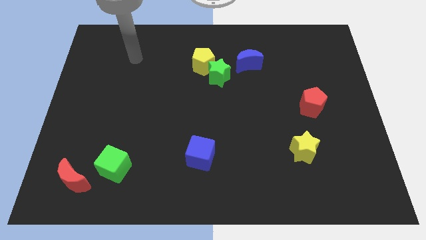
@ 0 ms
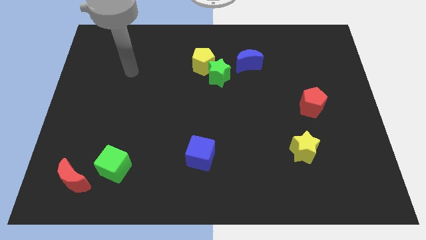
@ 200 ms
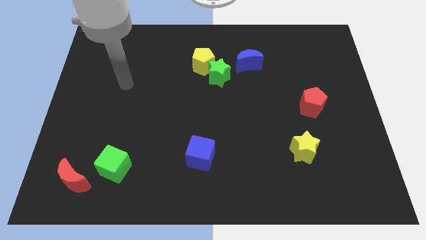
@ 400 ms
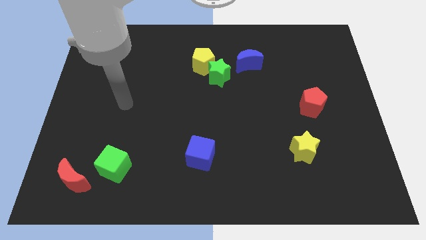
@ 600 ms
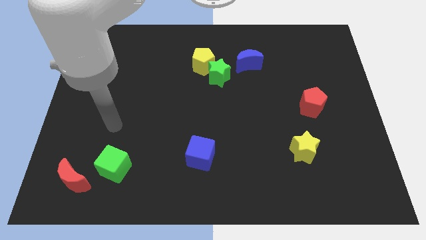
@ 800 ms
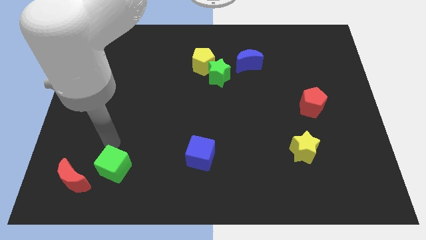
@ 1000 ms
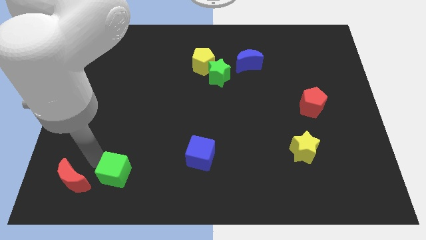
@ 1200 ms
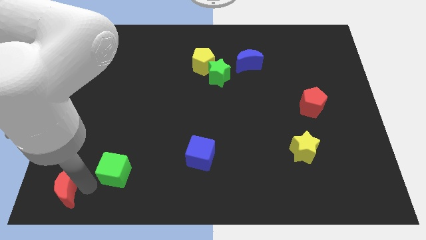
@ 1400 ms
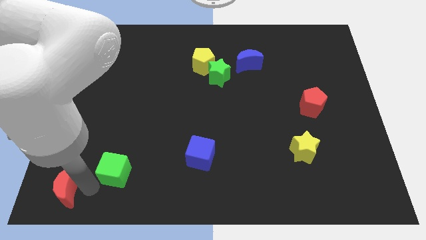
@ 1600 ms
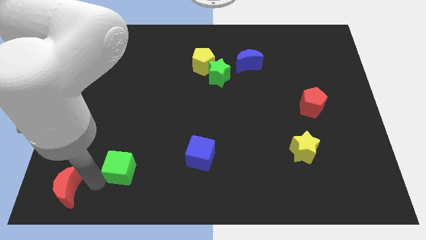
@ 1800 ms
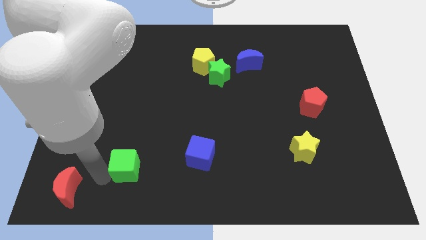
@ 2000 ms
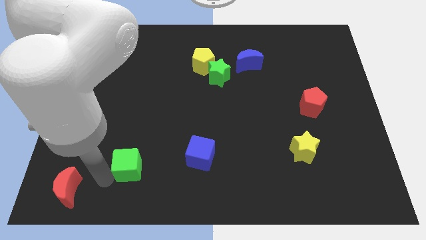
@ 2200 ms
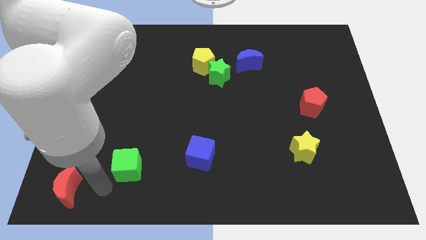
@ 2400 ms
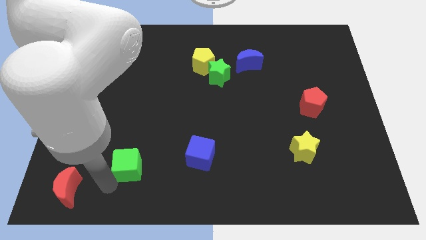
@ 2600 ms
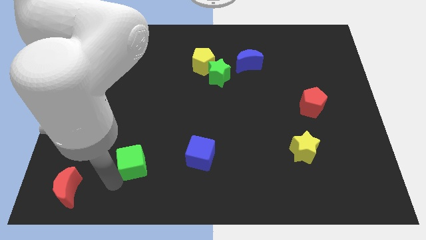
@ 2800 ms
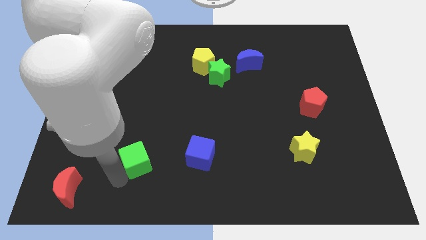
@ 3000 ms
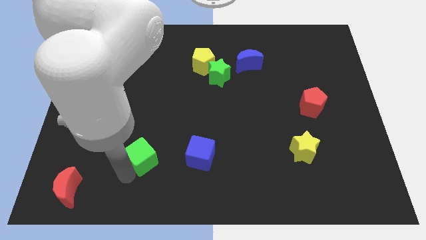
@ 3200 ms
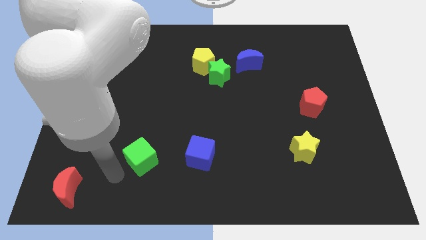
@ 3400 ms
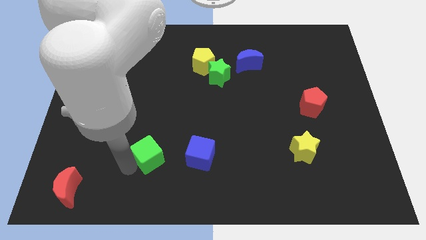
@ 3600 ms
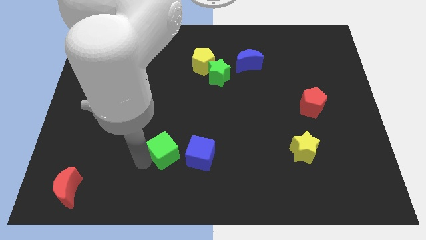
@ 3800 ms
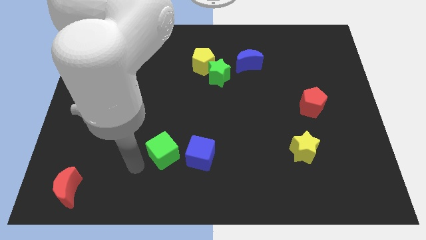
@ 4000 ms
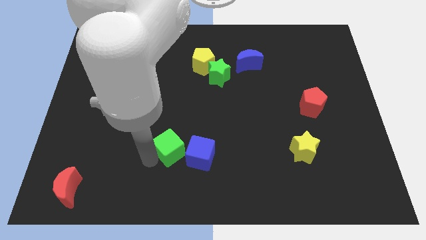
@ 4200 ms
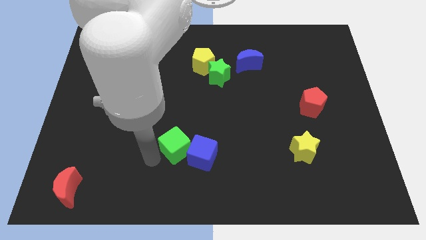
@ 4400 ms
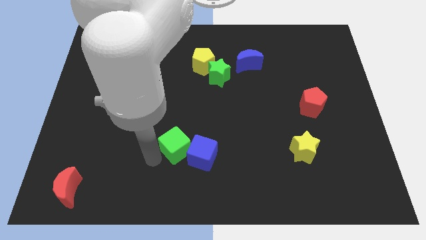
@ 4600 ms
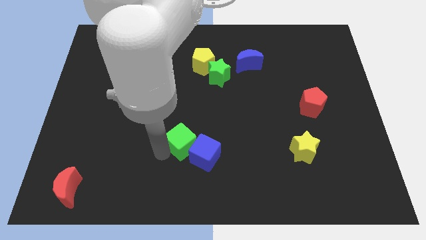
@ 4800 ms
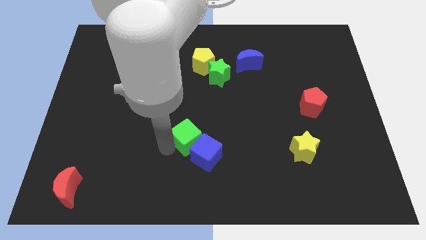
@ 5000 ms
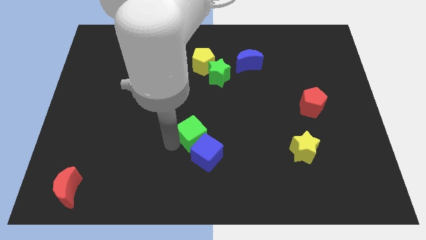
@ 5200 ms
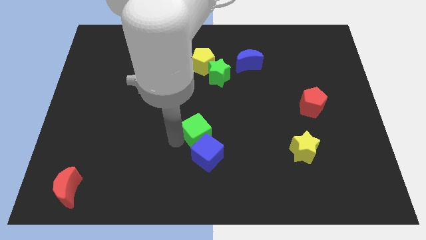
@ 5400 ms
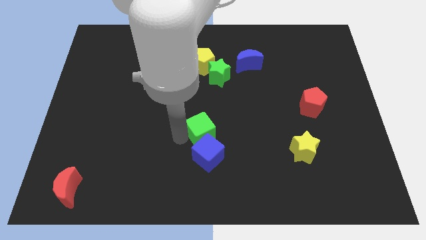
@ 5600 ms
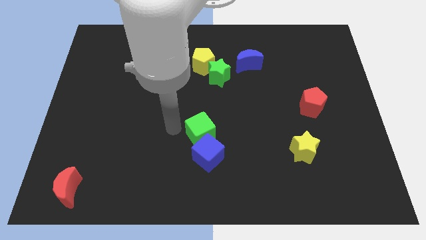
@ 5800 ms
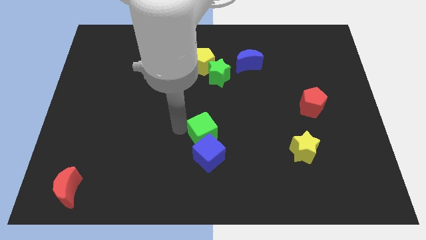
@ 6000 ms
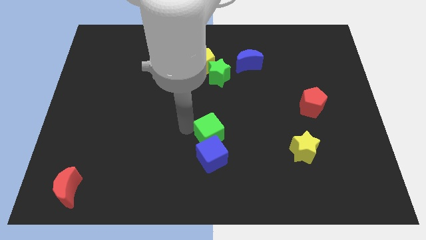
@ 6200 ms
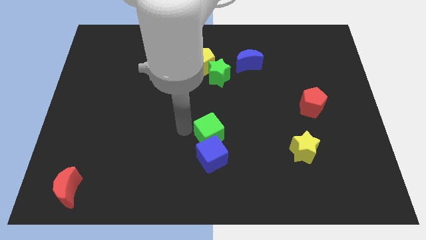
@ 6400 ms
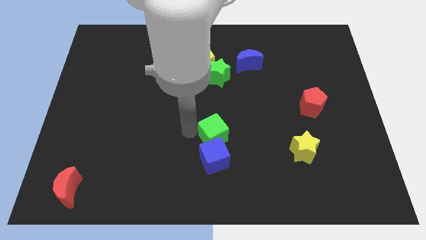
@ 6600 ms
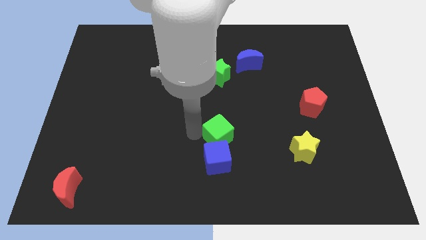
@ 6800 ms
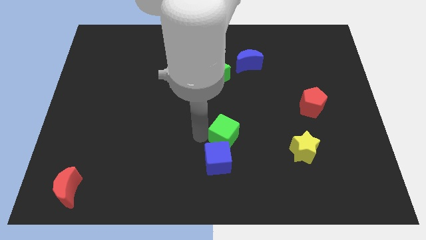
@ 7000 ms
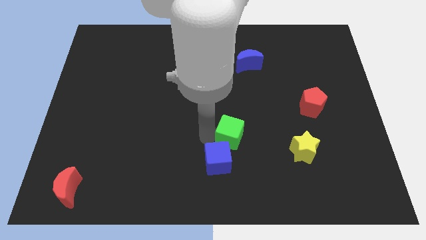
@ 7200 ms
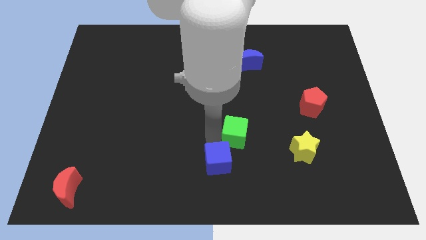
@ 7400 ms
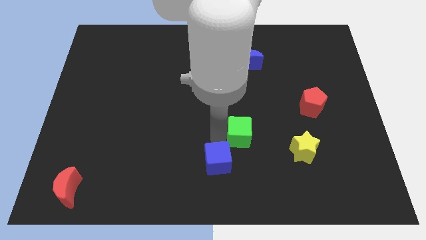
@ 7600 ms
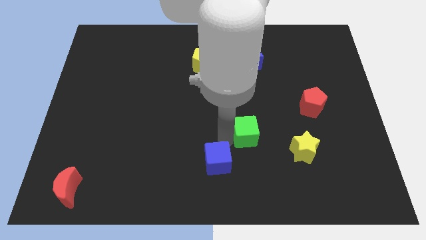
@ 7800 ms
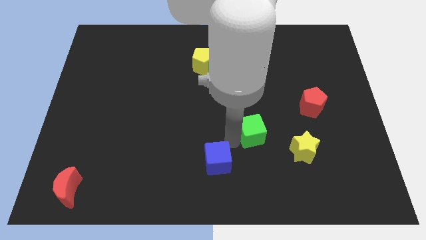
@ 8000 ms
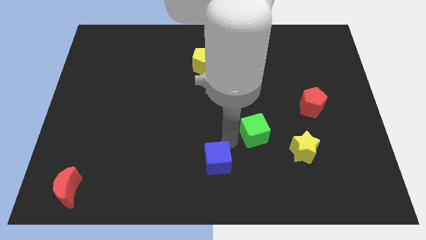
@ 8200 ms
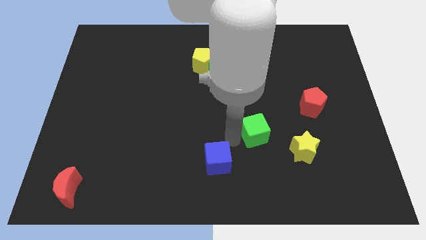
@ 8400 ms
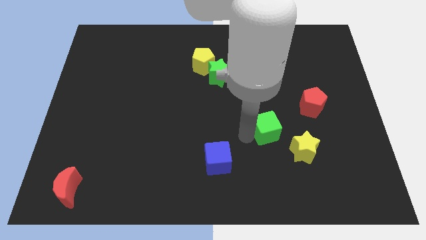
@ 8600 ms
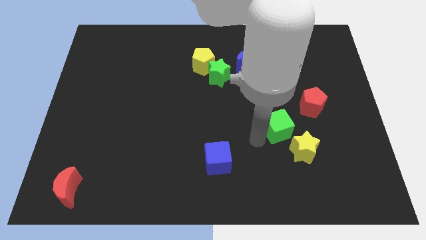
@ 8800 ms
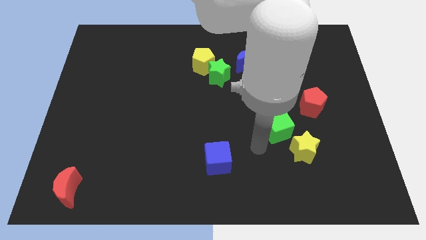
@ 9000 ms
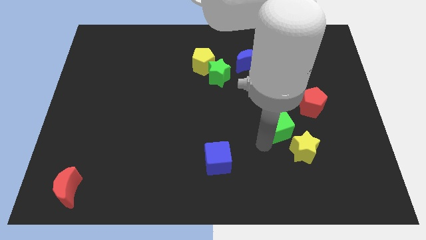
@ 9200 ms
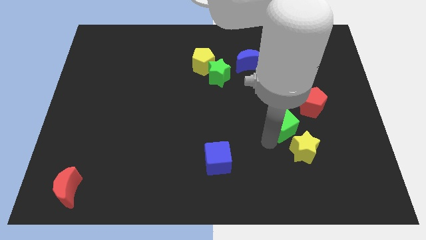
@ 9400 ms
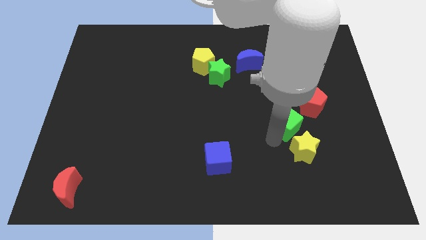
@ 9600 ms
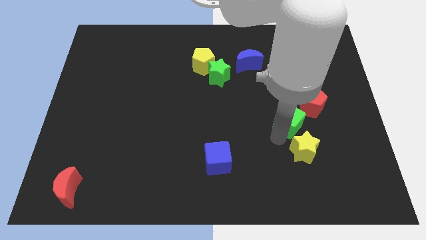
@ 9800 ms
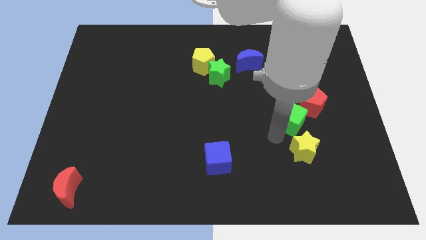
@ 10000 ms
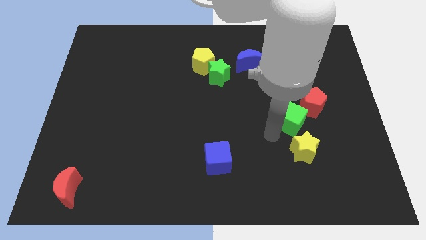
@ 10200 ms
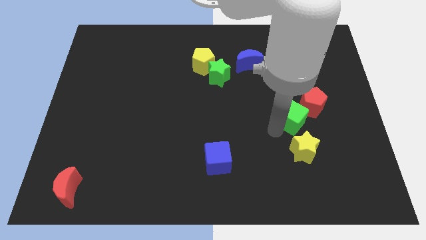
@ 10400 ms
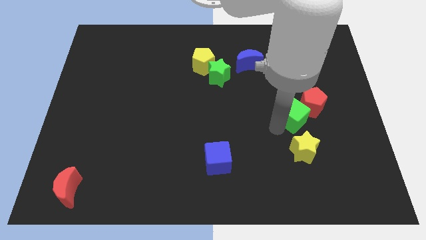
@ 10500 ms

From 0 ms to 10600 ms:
slide the green cube towards the red pentagon

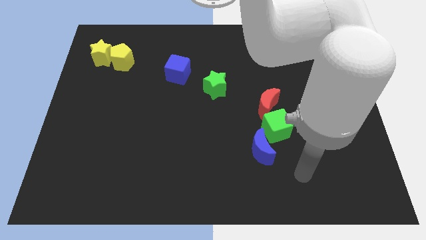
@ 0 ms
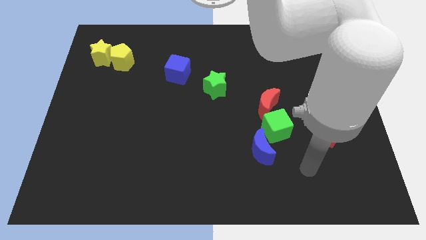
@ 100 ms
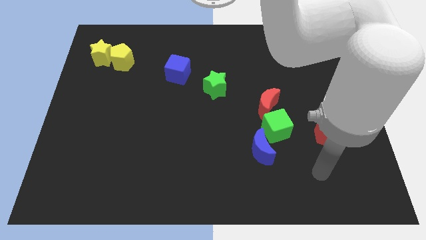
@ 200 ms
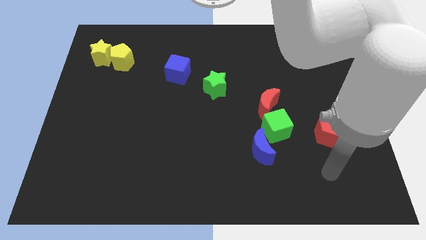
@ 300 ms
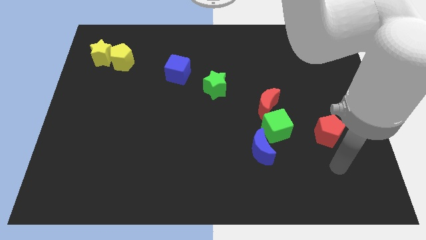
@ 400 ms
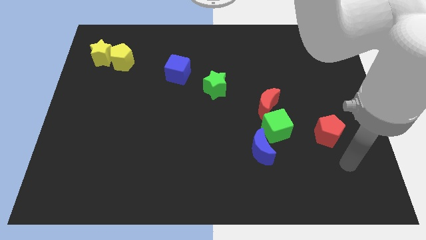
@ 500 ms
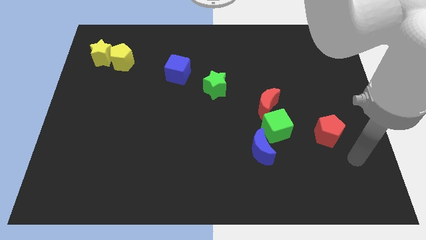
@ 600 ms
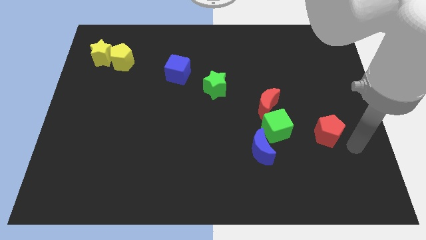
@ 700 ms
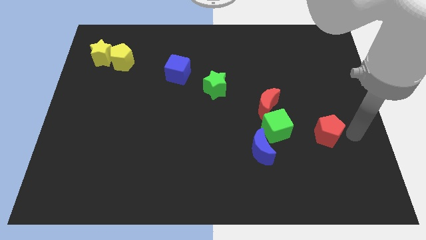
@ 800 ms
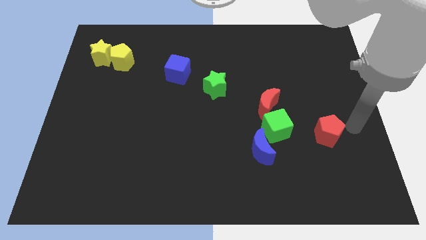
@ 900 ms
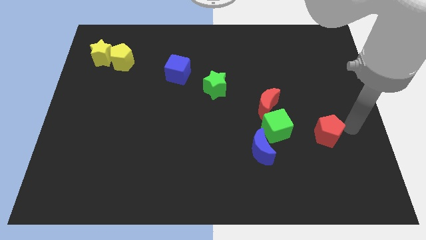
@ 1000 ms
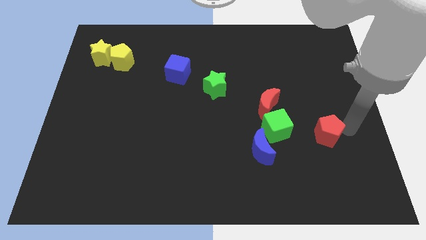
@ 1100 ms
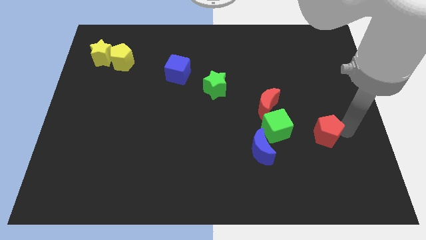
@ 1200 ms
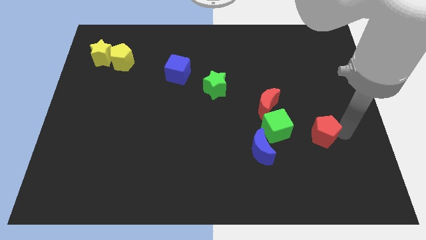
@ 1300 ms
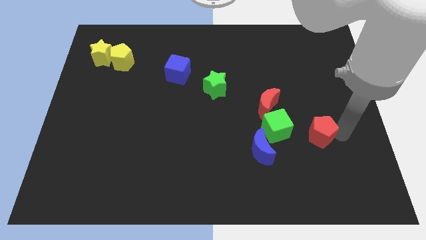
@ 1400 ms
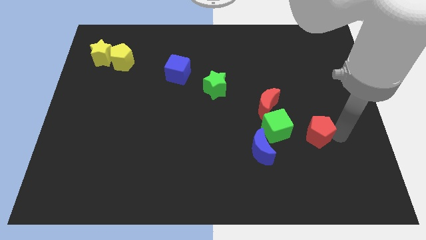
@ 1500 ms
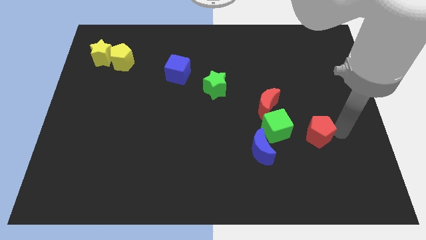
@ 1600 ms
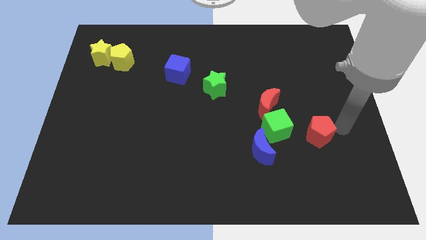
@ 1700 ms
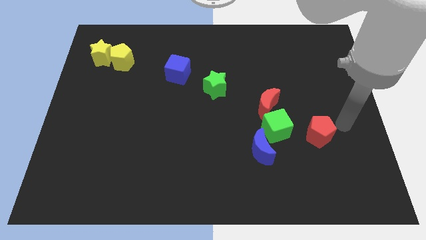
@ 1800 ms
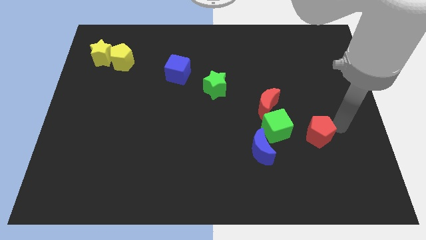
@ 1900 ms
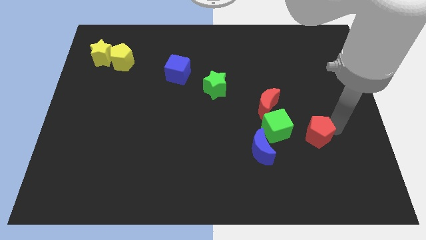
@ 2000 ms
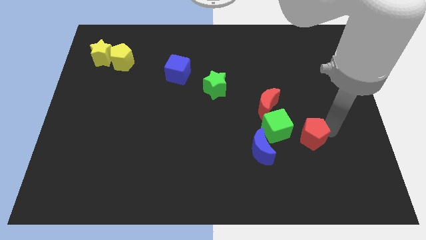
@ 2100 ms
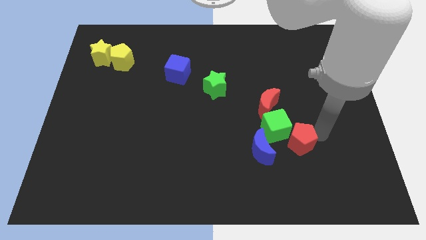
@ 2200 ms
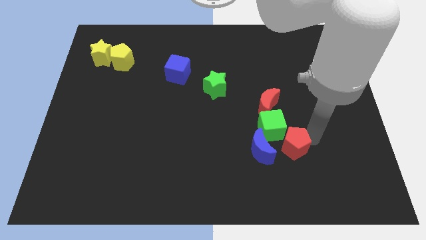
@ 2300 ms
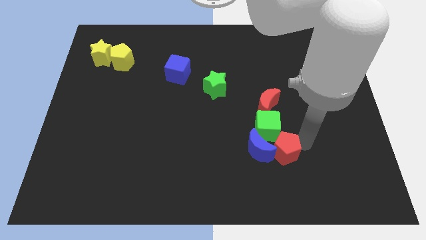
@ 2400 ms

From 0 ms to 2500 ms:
slide the red pentagon next to the blue moon
